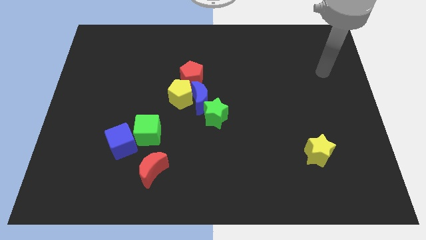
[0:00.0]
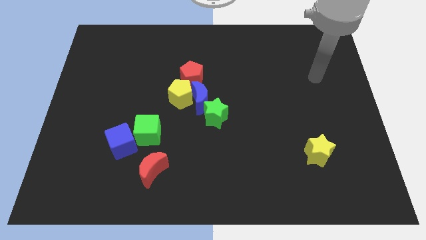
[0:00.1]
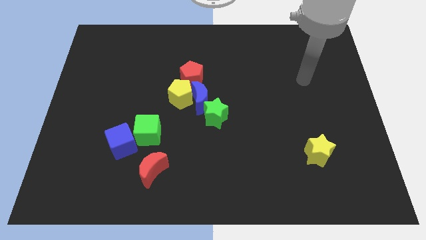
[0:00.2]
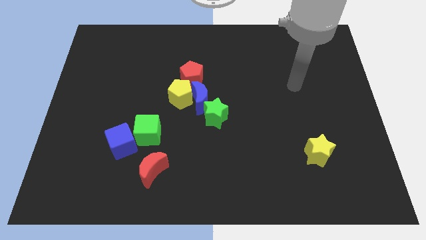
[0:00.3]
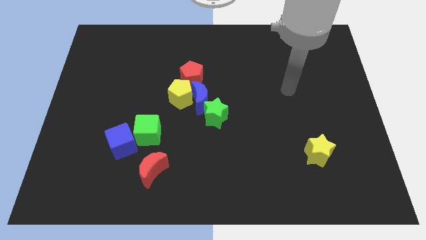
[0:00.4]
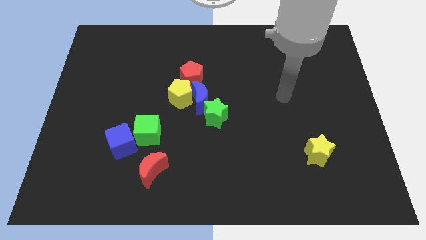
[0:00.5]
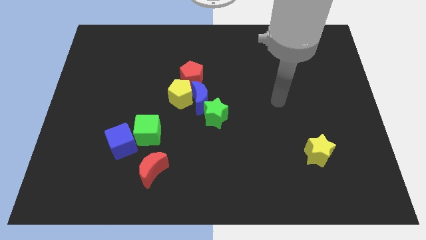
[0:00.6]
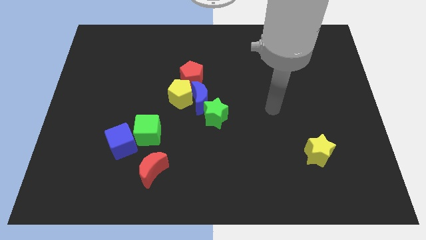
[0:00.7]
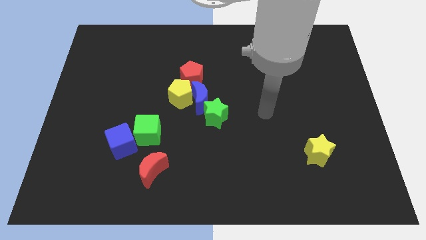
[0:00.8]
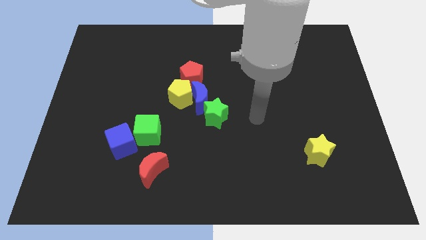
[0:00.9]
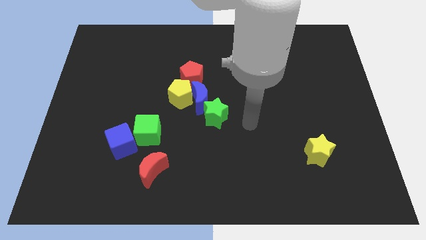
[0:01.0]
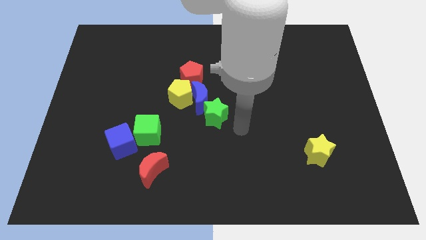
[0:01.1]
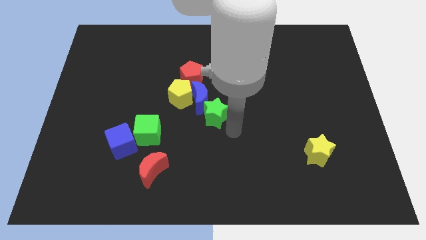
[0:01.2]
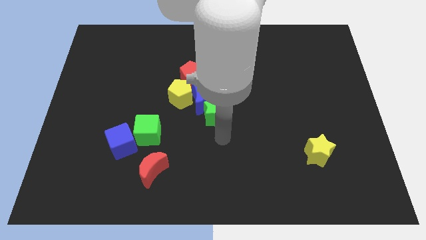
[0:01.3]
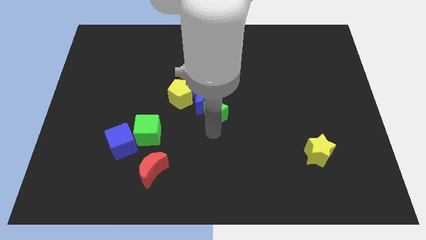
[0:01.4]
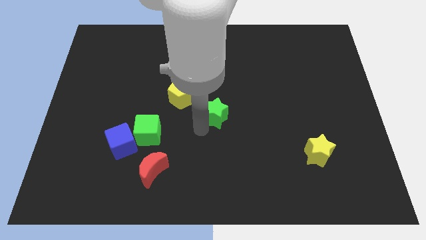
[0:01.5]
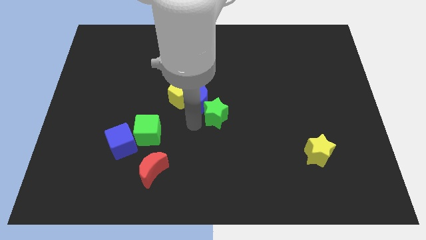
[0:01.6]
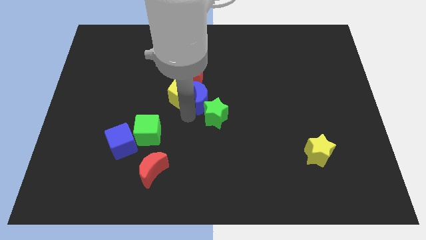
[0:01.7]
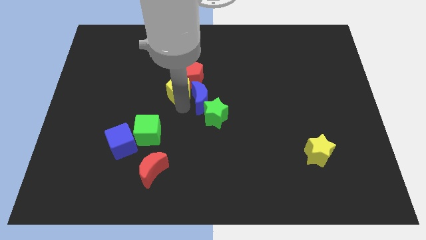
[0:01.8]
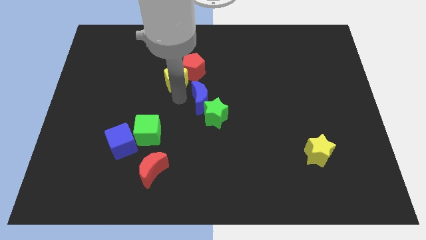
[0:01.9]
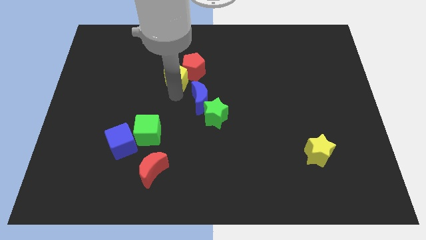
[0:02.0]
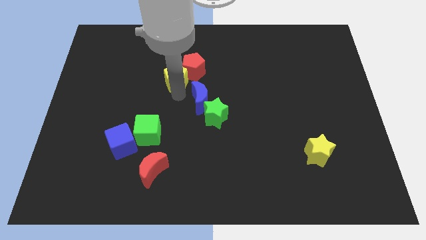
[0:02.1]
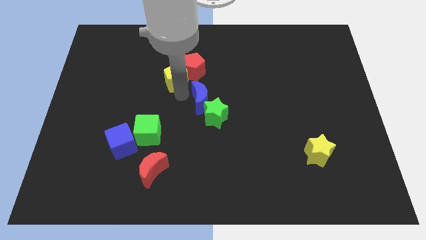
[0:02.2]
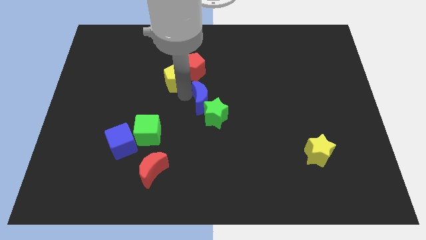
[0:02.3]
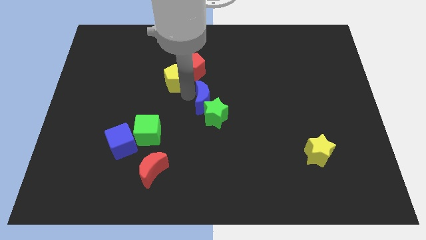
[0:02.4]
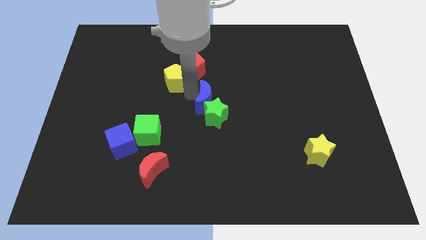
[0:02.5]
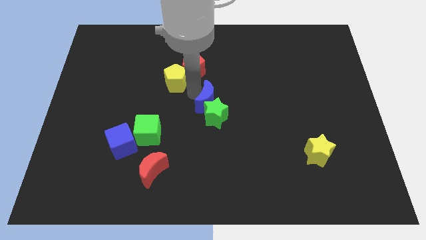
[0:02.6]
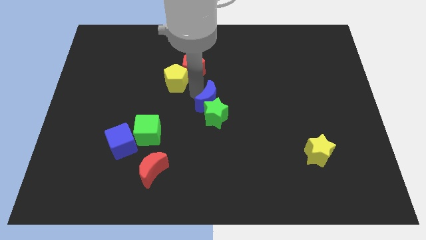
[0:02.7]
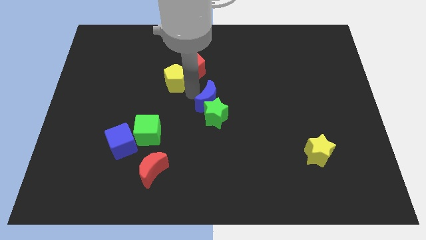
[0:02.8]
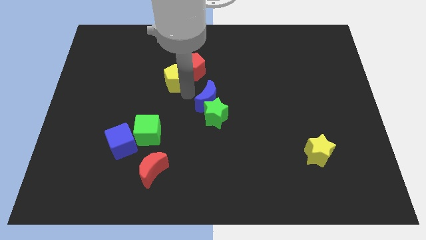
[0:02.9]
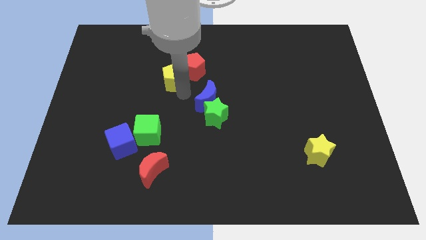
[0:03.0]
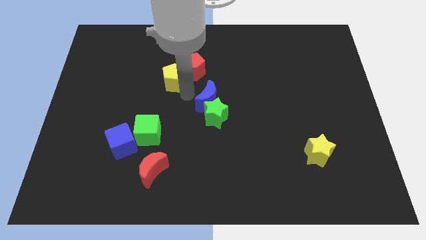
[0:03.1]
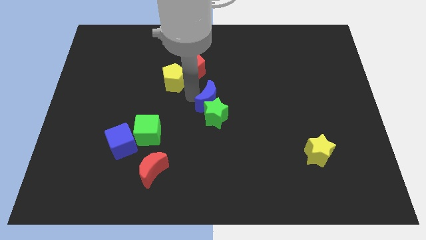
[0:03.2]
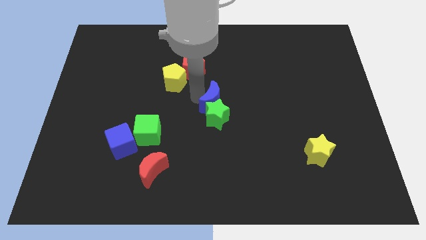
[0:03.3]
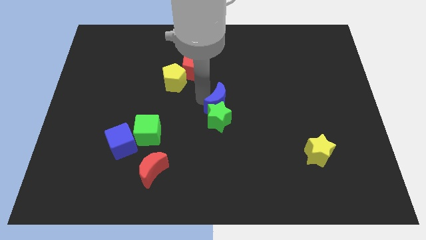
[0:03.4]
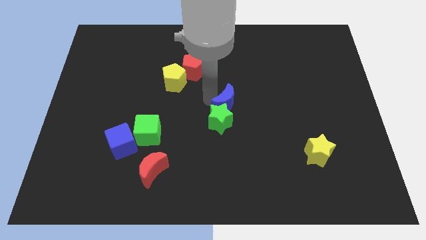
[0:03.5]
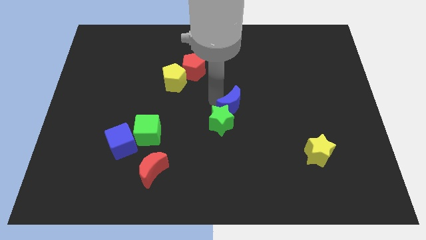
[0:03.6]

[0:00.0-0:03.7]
separate the blue moon from the group

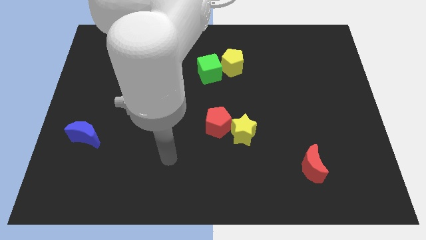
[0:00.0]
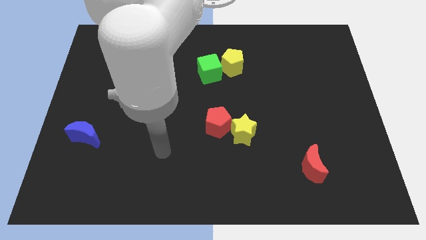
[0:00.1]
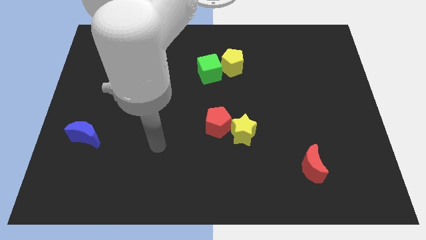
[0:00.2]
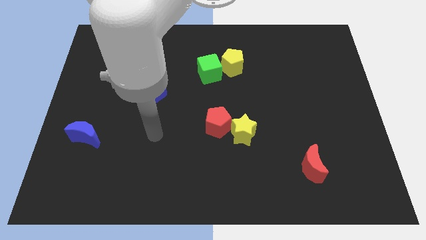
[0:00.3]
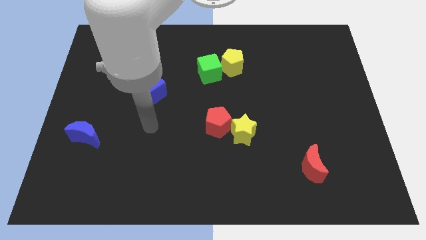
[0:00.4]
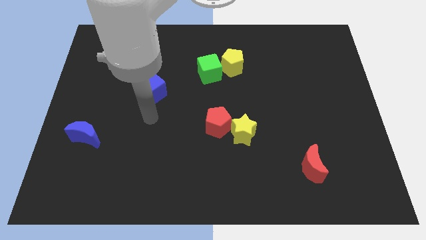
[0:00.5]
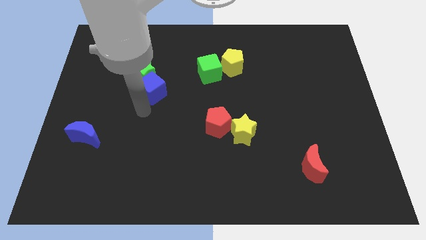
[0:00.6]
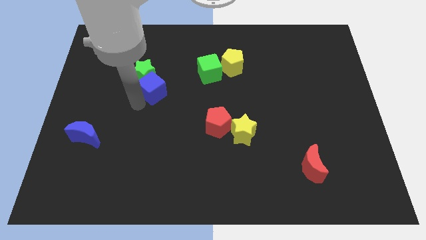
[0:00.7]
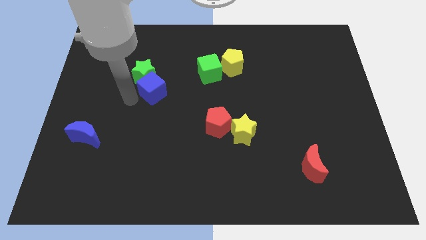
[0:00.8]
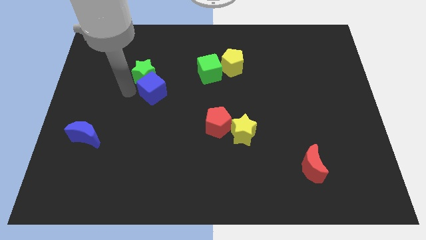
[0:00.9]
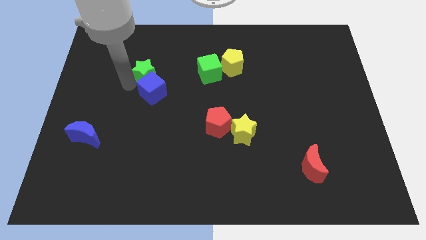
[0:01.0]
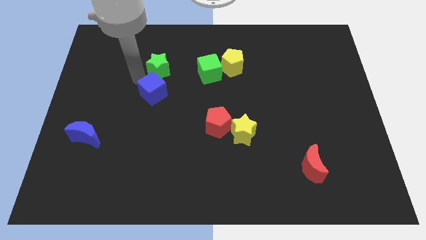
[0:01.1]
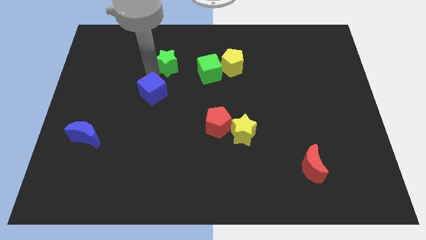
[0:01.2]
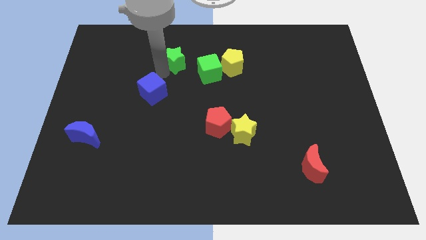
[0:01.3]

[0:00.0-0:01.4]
separate the blue cube from the green star

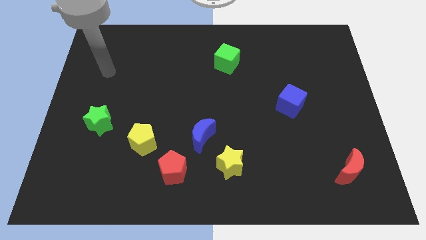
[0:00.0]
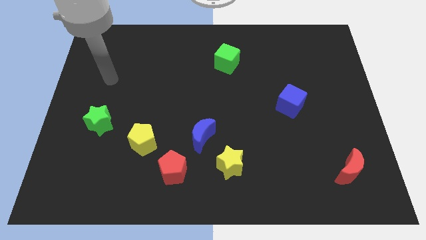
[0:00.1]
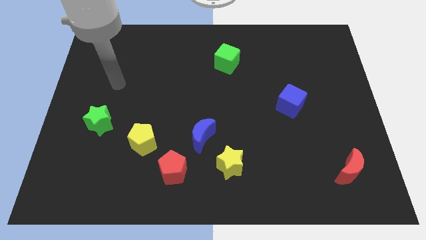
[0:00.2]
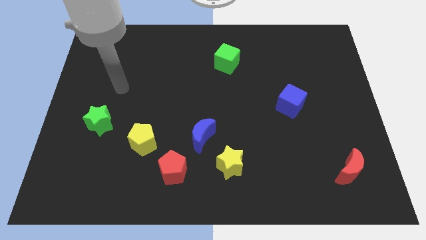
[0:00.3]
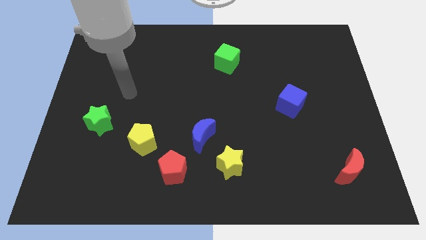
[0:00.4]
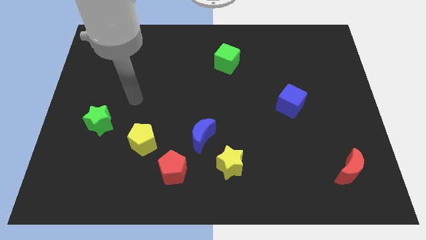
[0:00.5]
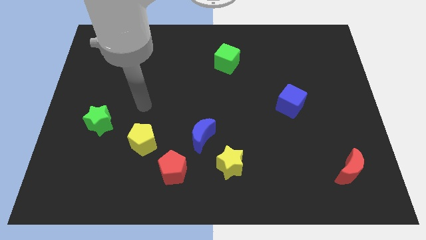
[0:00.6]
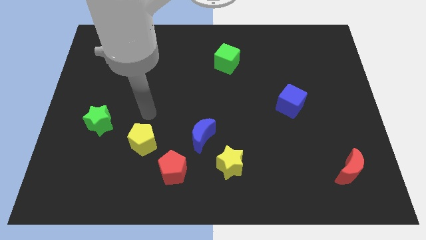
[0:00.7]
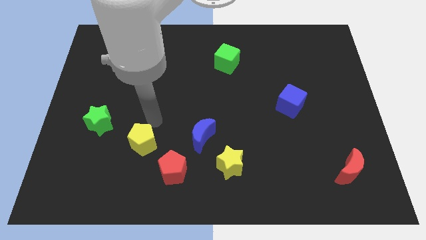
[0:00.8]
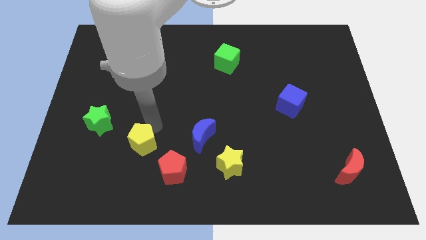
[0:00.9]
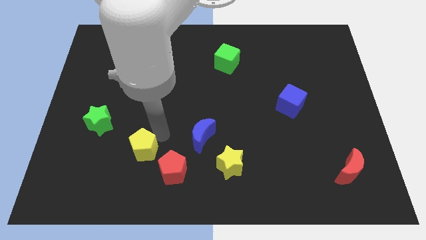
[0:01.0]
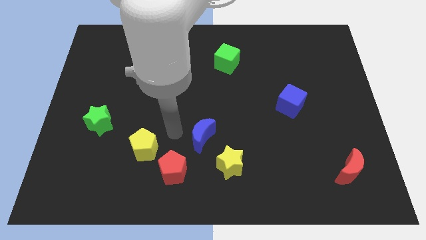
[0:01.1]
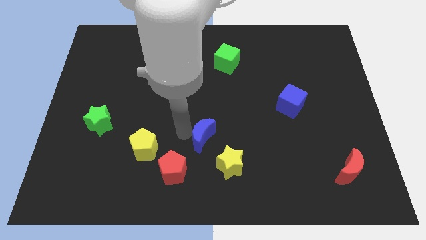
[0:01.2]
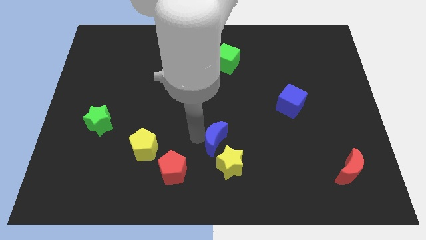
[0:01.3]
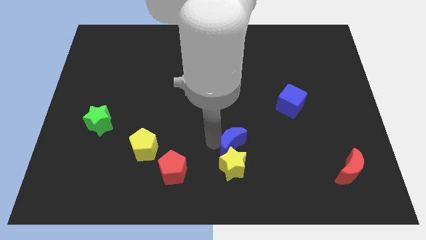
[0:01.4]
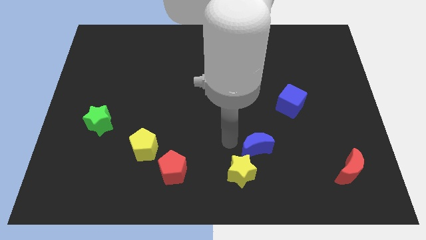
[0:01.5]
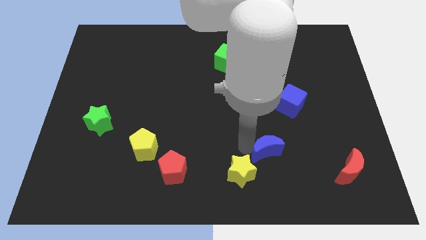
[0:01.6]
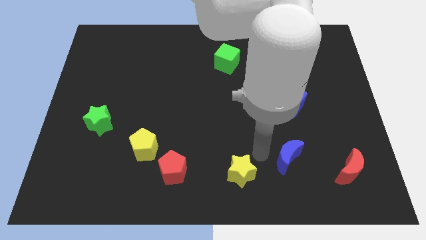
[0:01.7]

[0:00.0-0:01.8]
separate the yellow star from the blue moon

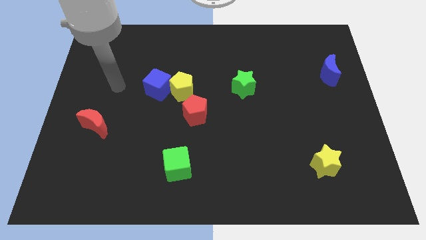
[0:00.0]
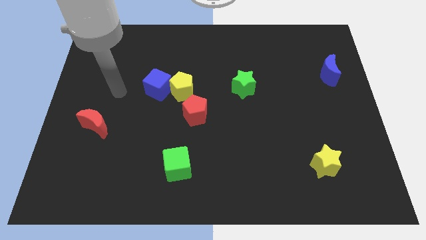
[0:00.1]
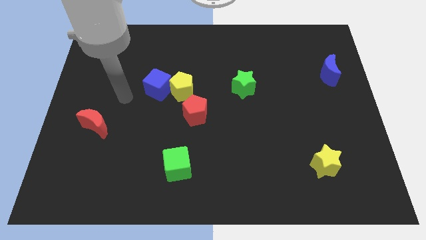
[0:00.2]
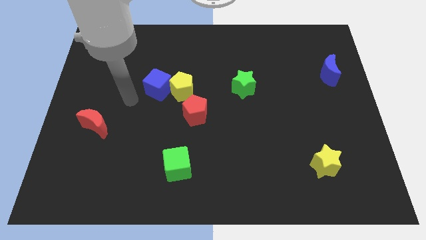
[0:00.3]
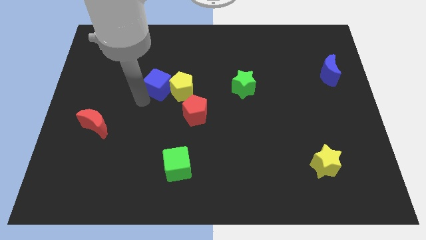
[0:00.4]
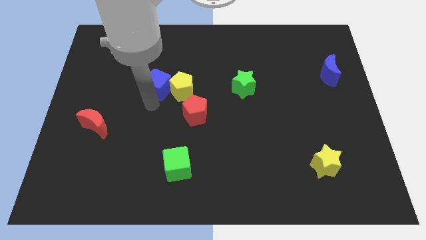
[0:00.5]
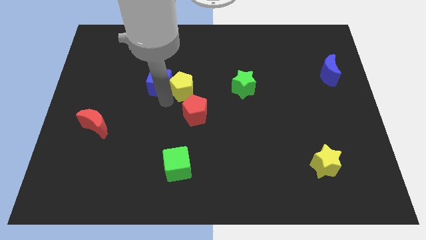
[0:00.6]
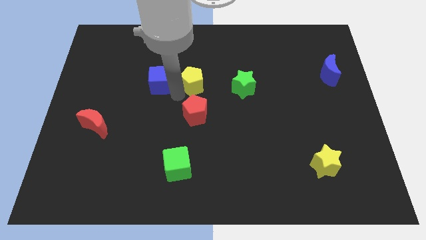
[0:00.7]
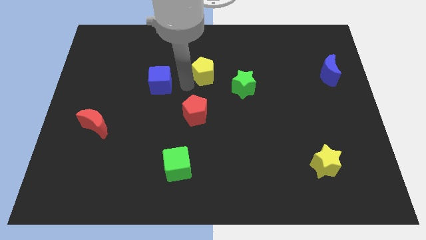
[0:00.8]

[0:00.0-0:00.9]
move the blue cube away from the yellow pentagon

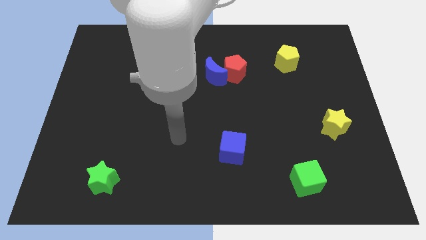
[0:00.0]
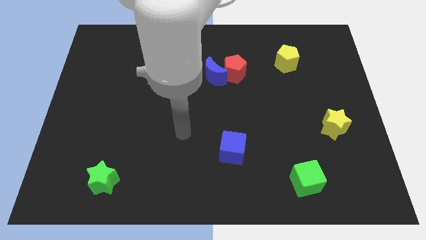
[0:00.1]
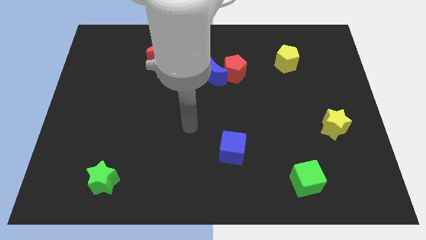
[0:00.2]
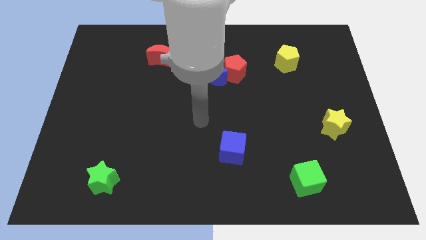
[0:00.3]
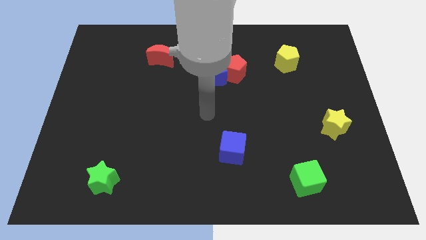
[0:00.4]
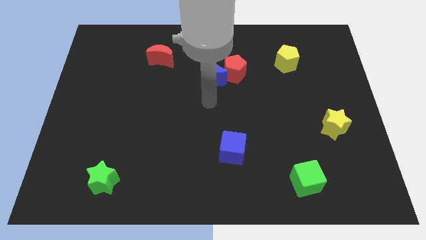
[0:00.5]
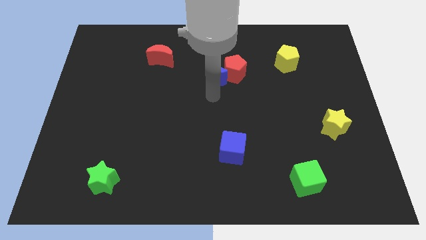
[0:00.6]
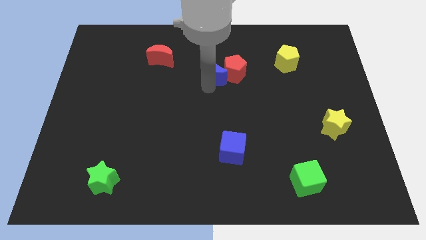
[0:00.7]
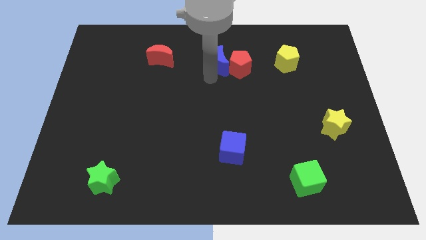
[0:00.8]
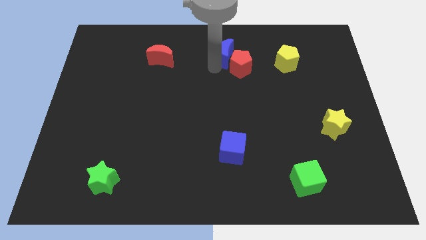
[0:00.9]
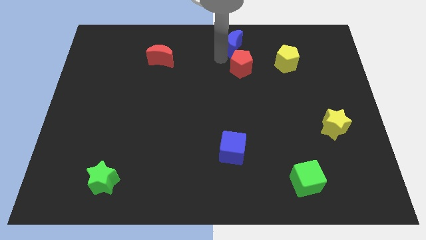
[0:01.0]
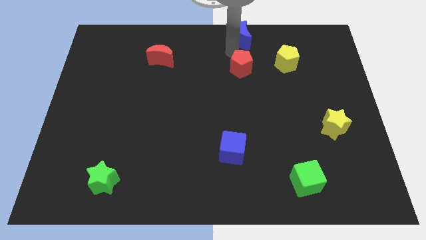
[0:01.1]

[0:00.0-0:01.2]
separate the red pentagon from the blue moon

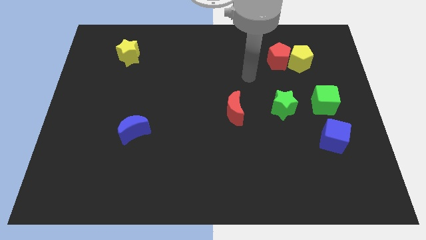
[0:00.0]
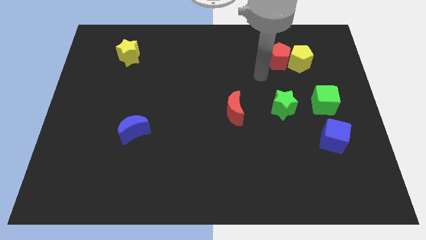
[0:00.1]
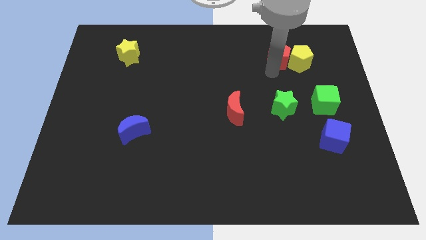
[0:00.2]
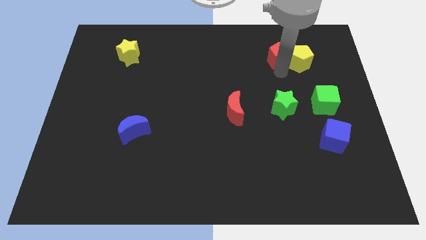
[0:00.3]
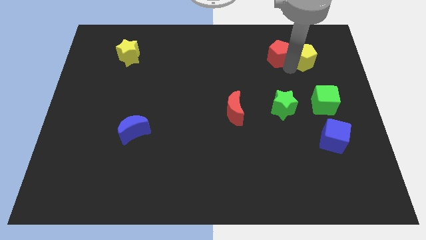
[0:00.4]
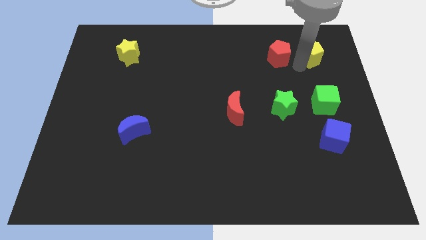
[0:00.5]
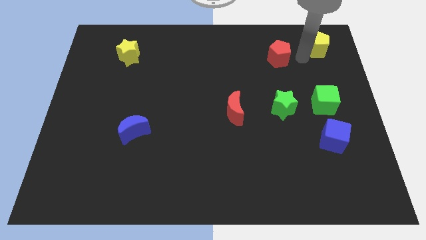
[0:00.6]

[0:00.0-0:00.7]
separate the red pentagon from the yellow pentagon
